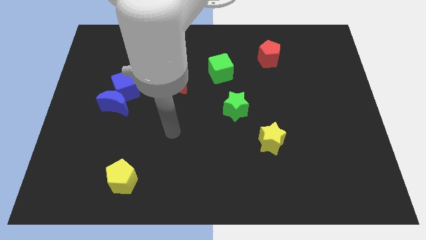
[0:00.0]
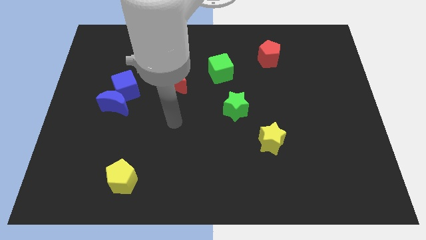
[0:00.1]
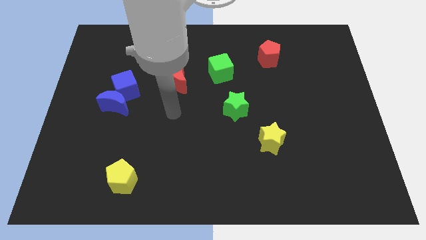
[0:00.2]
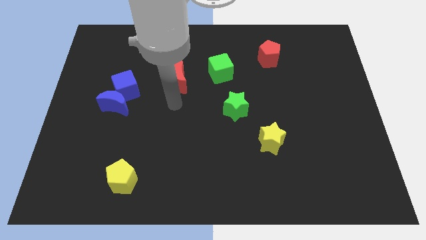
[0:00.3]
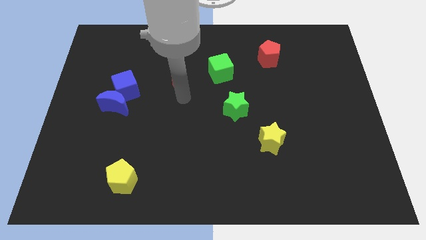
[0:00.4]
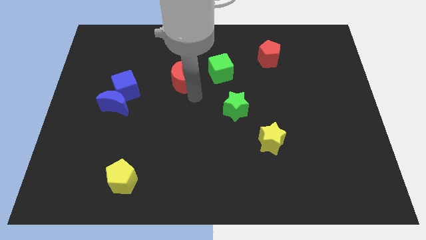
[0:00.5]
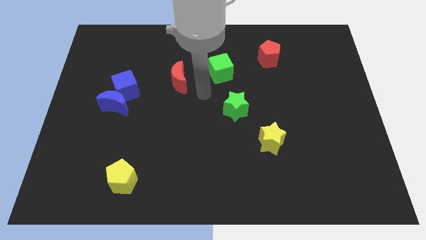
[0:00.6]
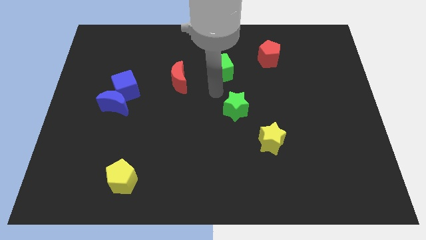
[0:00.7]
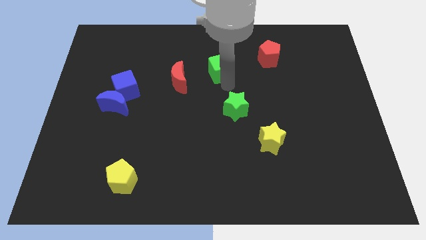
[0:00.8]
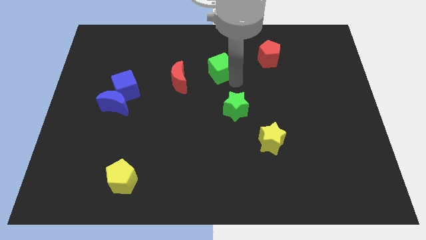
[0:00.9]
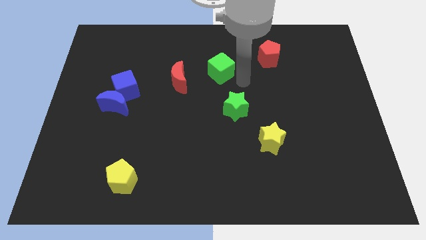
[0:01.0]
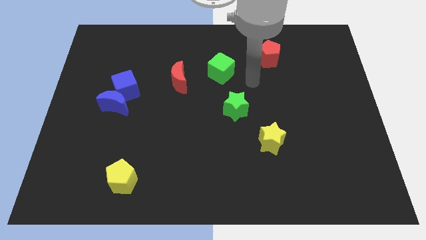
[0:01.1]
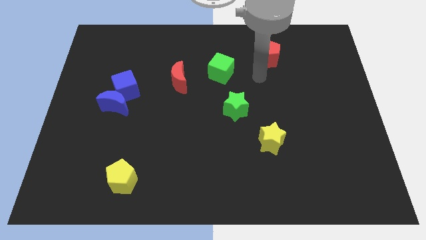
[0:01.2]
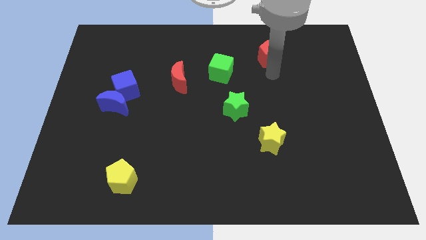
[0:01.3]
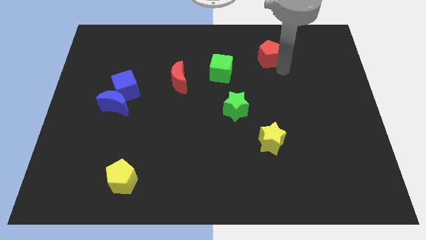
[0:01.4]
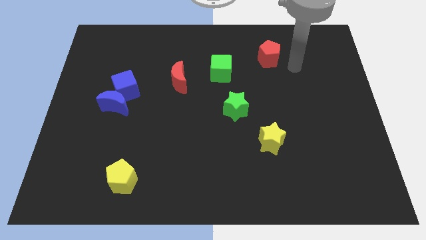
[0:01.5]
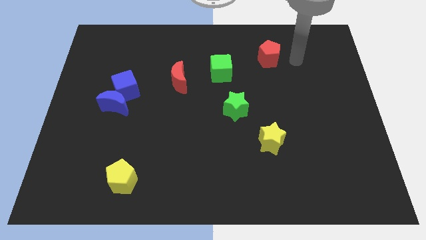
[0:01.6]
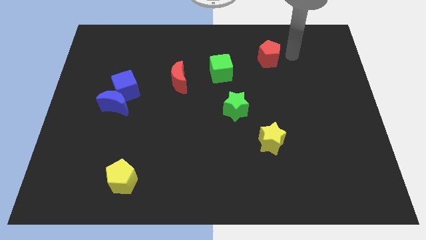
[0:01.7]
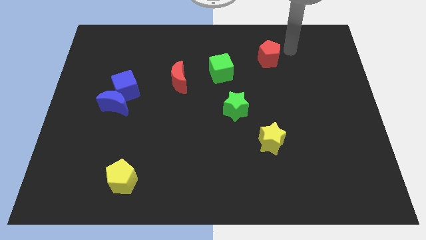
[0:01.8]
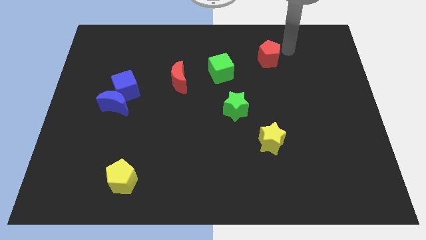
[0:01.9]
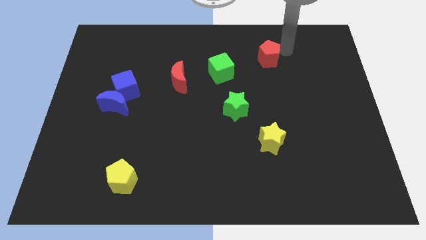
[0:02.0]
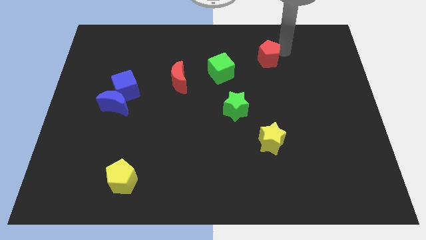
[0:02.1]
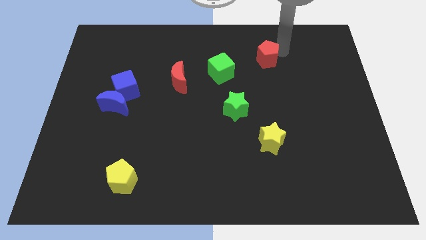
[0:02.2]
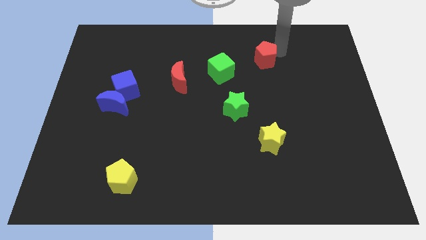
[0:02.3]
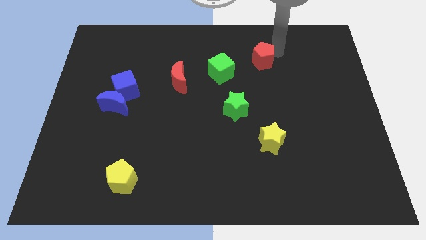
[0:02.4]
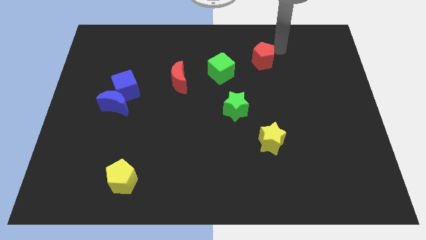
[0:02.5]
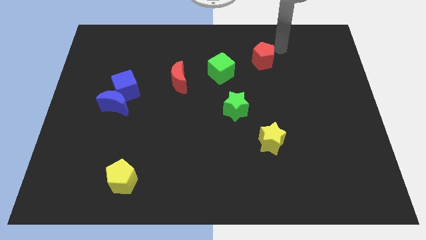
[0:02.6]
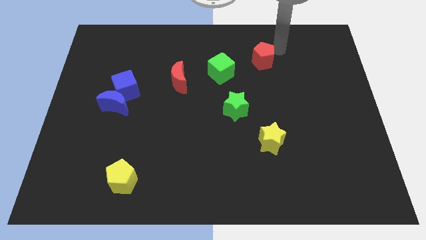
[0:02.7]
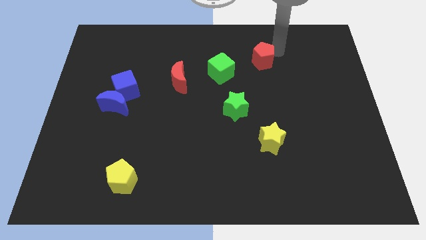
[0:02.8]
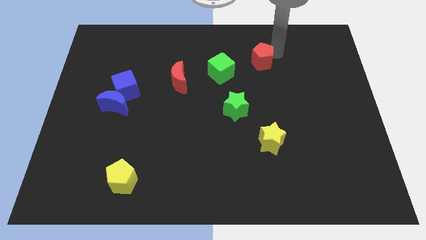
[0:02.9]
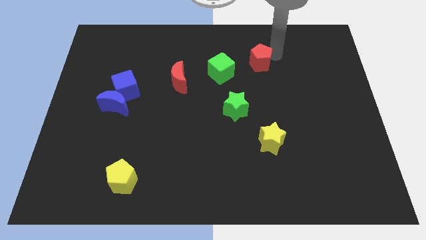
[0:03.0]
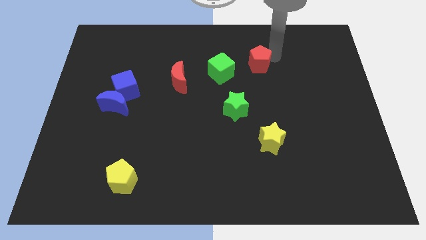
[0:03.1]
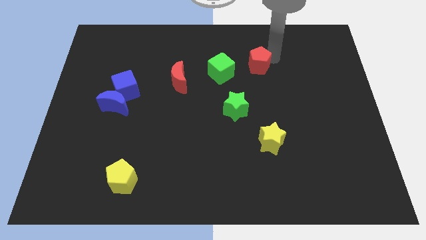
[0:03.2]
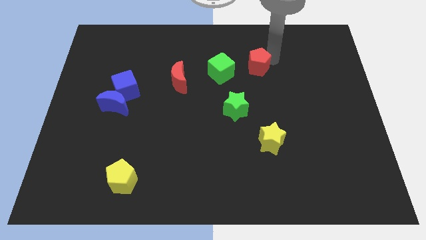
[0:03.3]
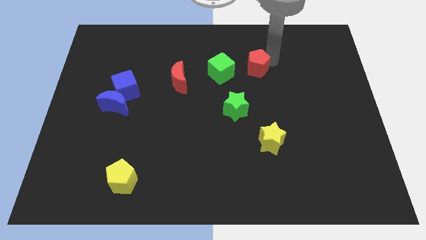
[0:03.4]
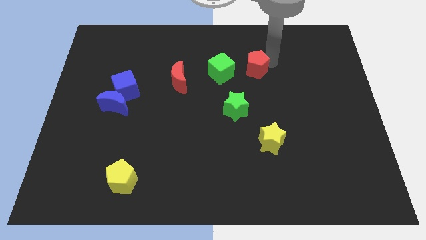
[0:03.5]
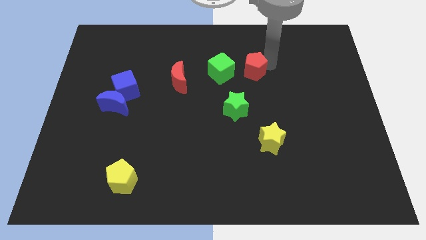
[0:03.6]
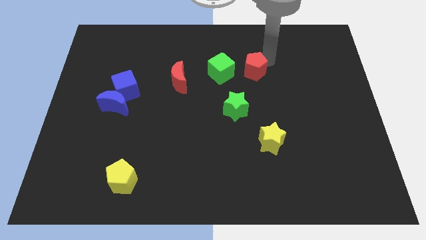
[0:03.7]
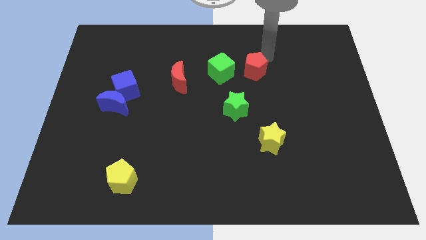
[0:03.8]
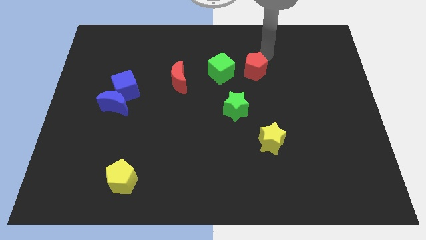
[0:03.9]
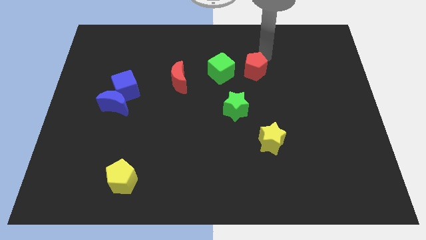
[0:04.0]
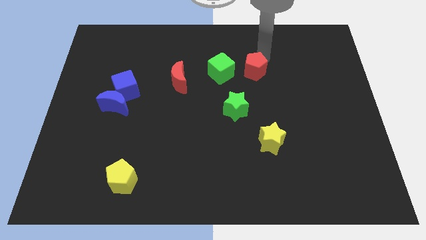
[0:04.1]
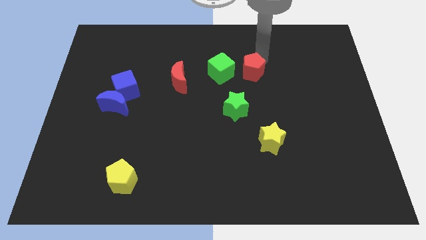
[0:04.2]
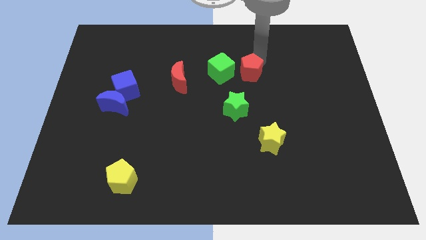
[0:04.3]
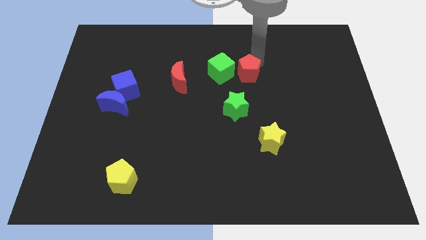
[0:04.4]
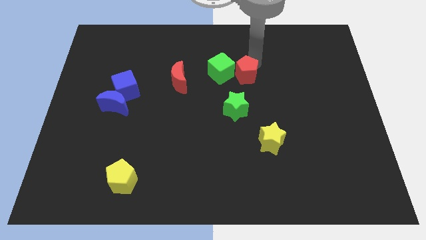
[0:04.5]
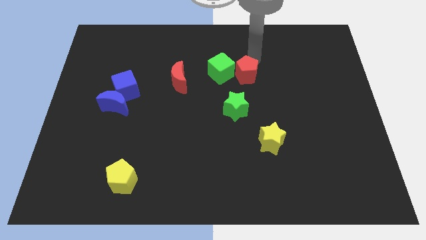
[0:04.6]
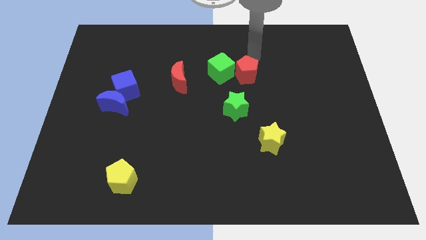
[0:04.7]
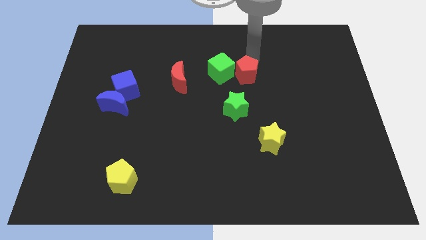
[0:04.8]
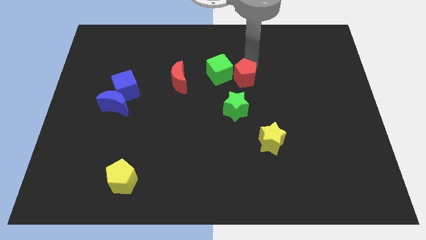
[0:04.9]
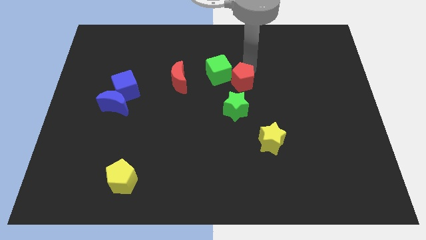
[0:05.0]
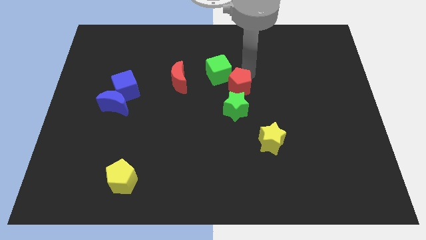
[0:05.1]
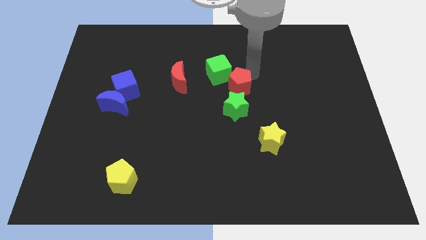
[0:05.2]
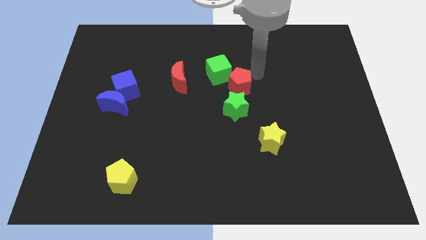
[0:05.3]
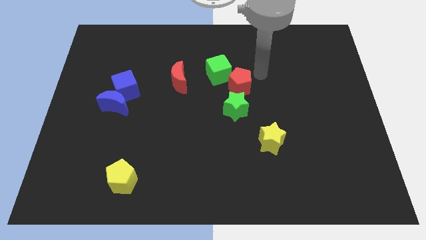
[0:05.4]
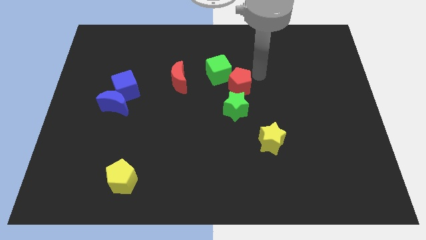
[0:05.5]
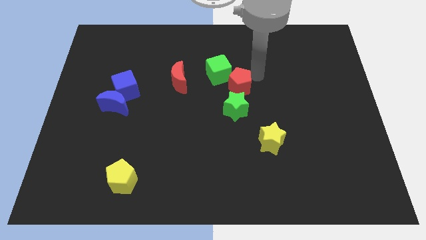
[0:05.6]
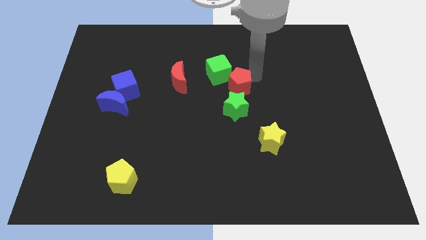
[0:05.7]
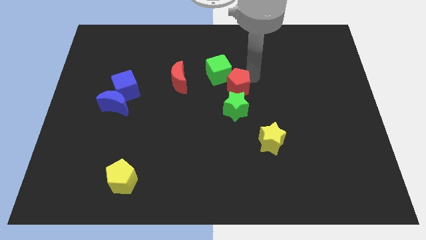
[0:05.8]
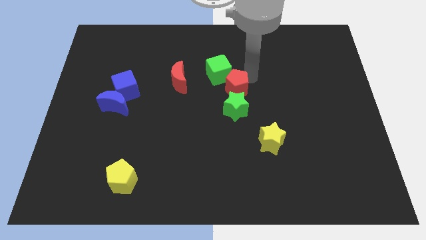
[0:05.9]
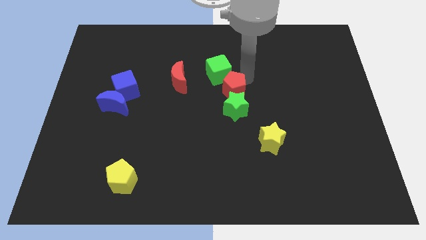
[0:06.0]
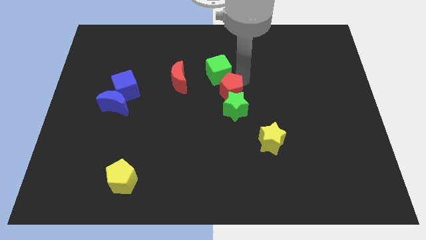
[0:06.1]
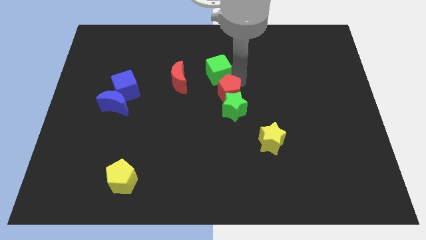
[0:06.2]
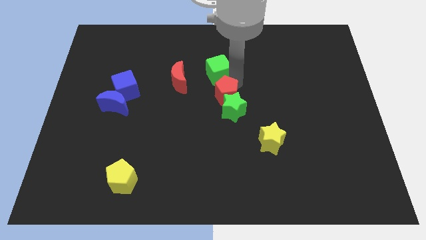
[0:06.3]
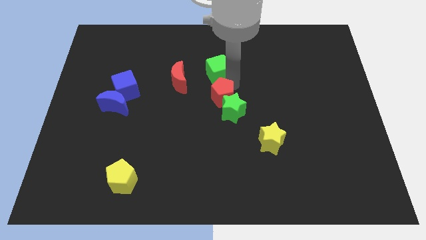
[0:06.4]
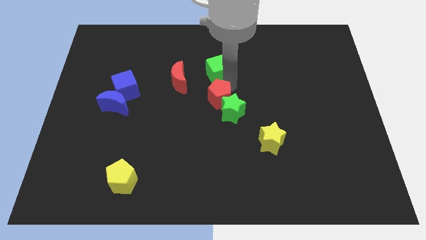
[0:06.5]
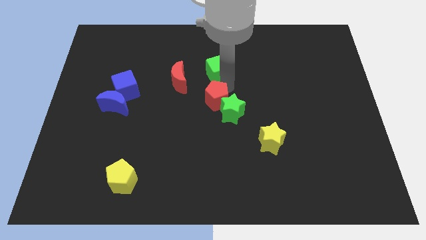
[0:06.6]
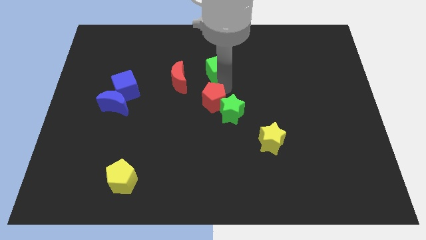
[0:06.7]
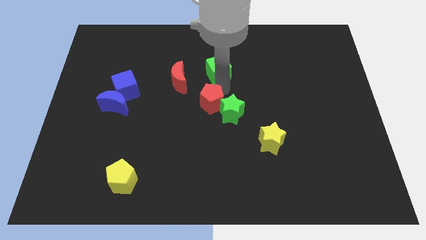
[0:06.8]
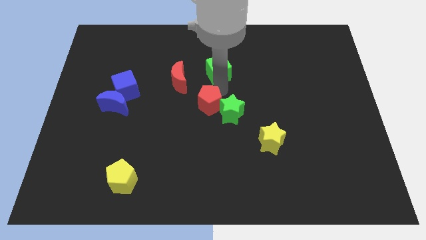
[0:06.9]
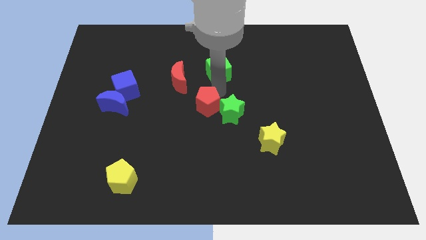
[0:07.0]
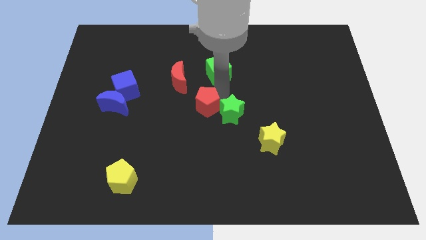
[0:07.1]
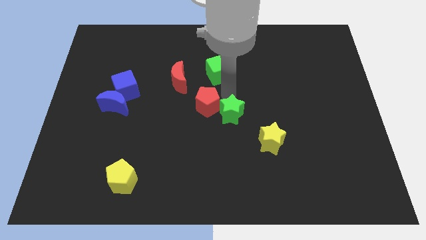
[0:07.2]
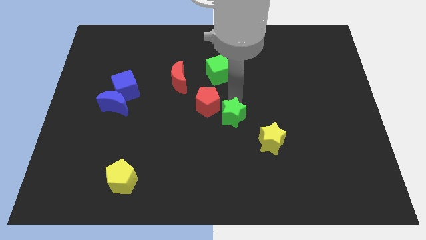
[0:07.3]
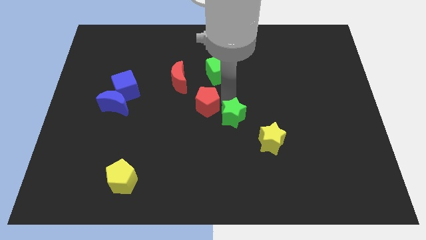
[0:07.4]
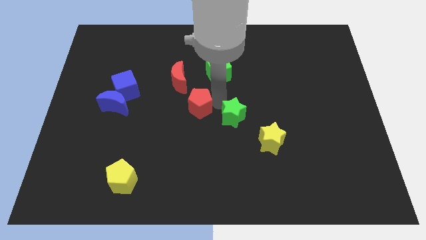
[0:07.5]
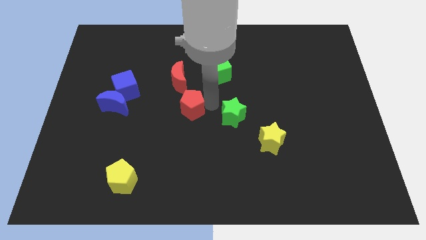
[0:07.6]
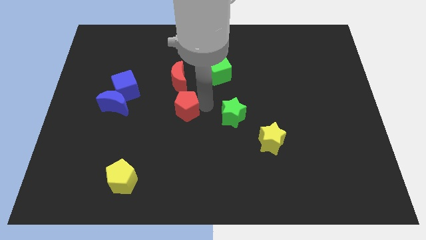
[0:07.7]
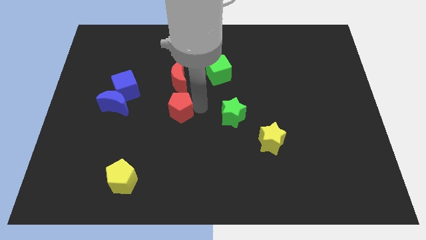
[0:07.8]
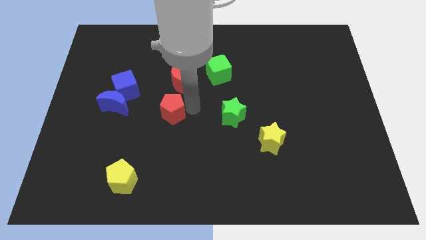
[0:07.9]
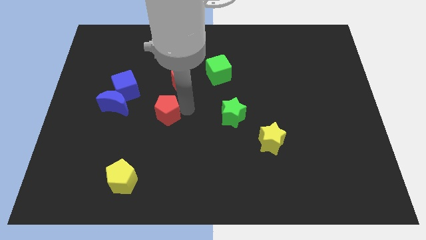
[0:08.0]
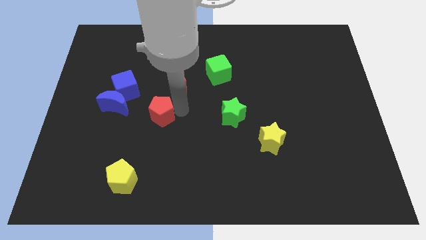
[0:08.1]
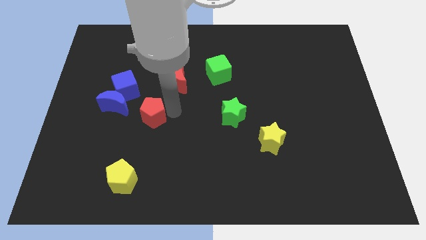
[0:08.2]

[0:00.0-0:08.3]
move the red pentagon to the bottom right side of the blue moon
